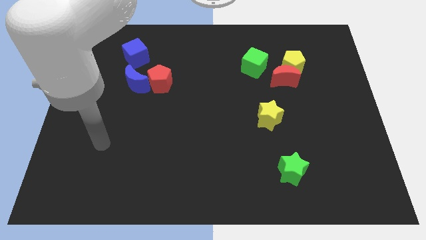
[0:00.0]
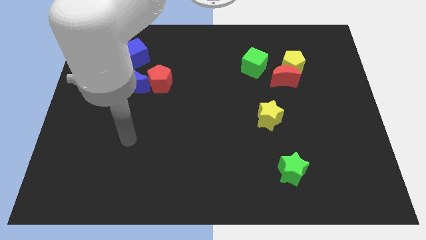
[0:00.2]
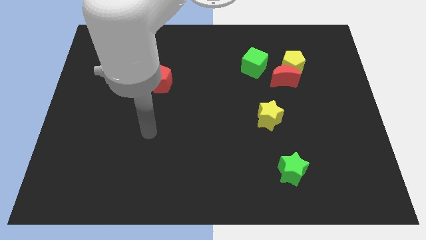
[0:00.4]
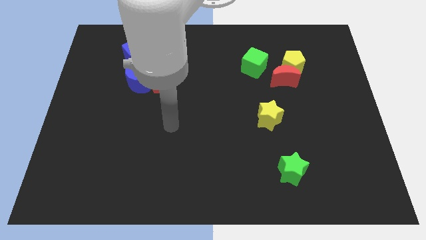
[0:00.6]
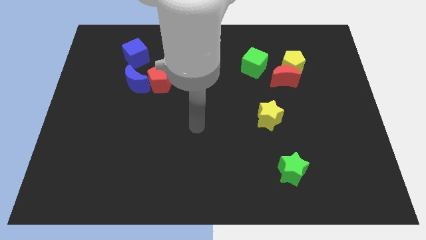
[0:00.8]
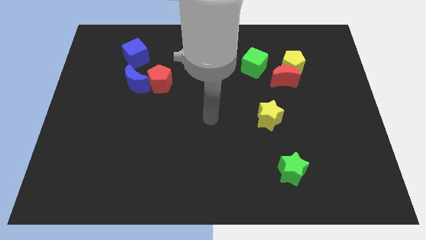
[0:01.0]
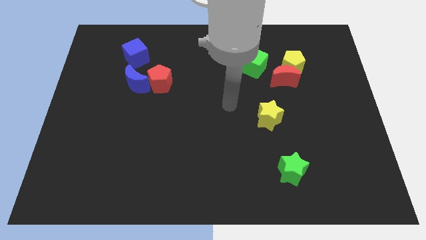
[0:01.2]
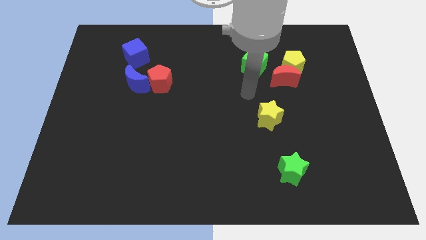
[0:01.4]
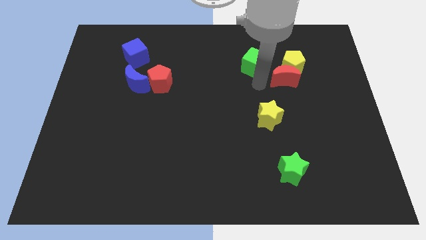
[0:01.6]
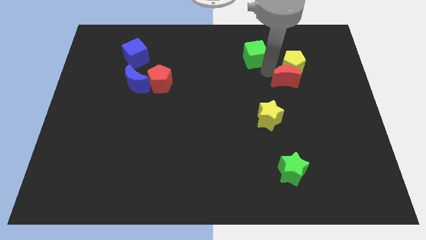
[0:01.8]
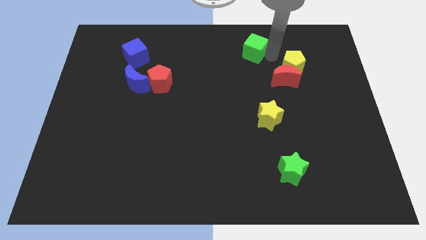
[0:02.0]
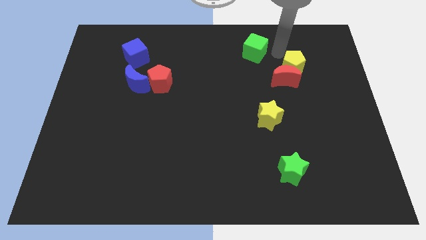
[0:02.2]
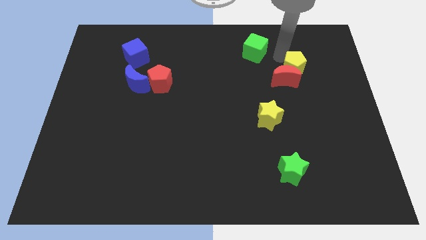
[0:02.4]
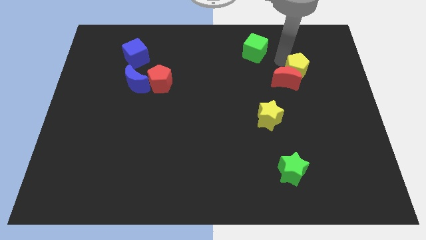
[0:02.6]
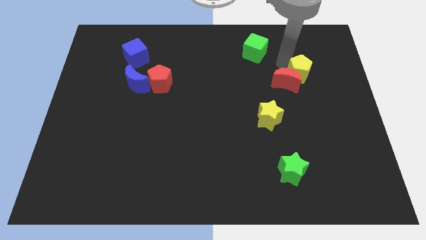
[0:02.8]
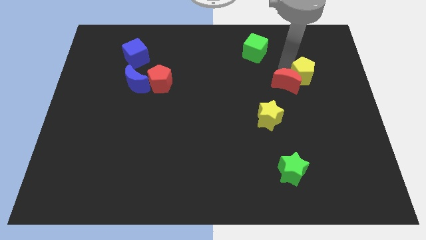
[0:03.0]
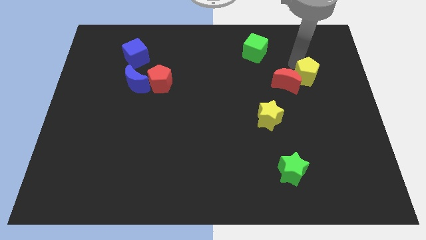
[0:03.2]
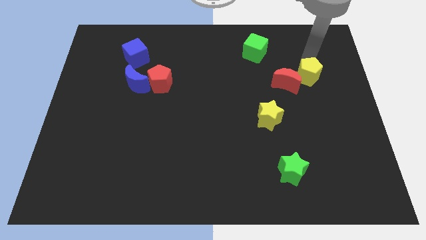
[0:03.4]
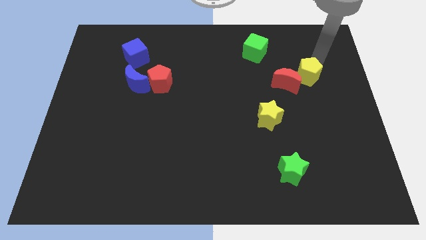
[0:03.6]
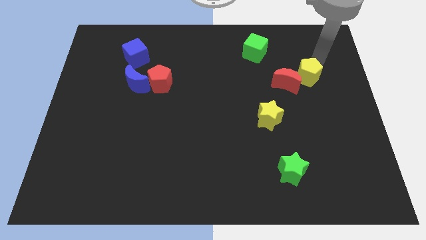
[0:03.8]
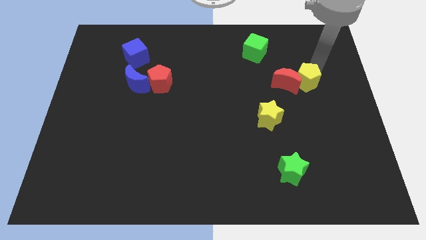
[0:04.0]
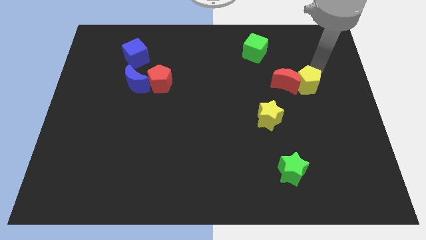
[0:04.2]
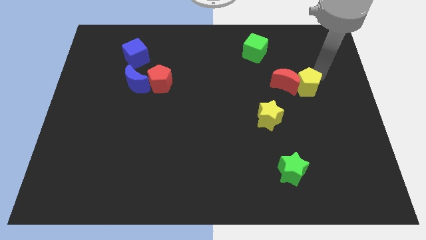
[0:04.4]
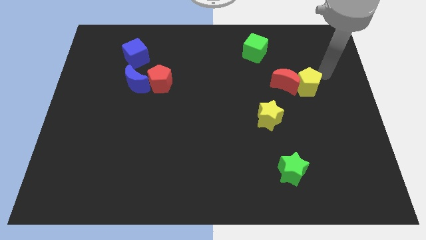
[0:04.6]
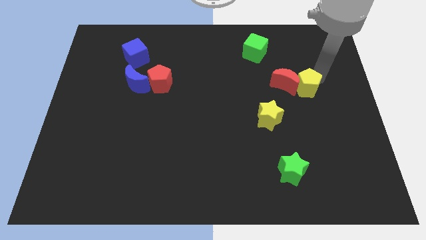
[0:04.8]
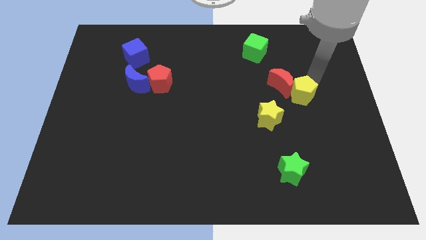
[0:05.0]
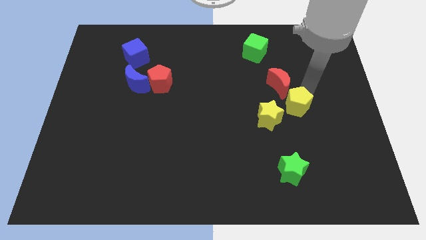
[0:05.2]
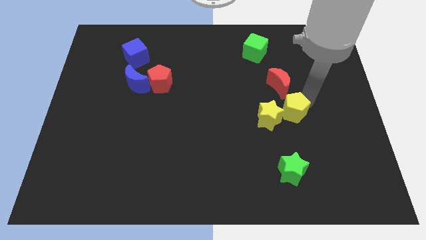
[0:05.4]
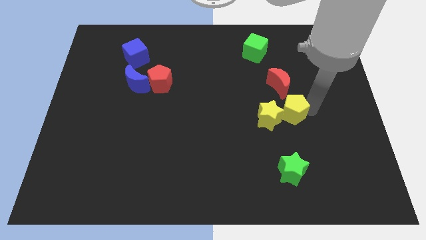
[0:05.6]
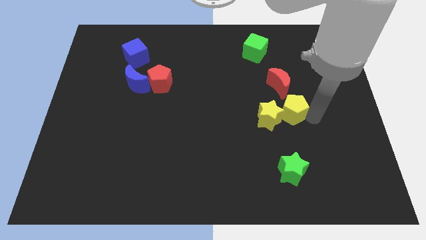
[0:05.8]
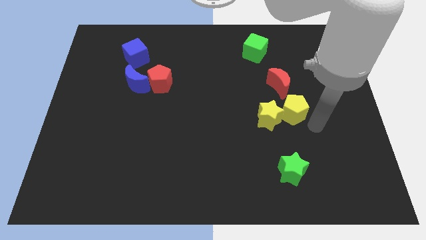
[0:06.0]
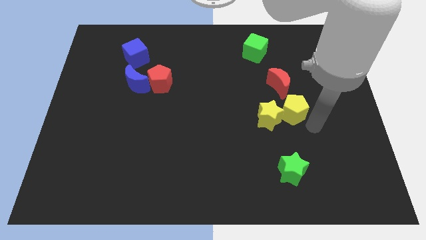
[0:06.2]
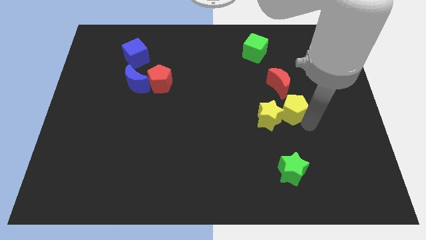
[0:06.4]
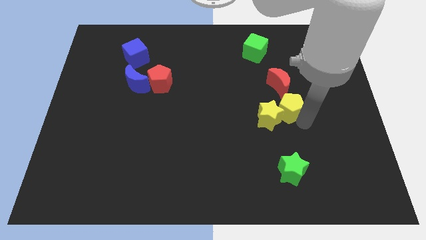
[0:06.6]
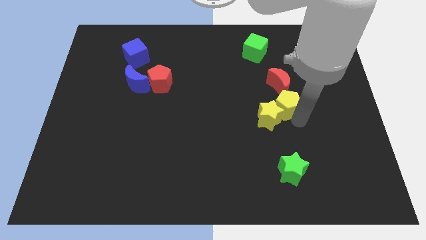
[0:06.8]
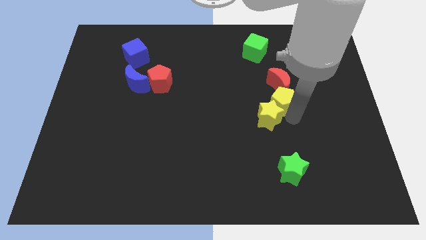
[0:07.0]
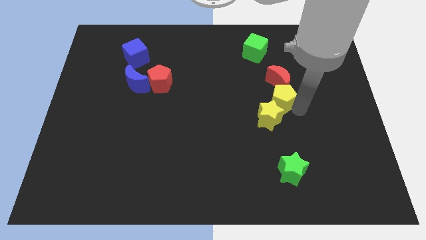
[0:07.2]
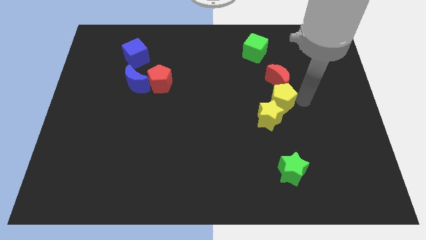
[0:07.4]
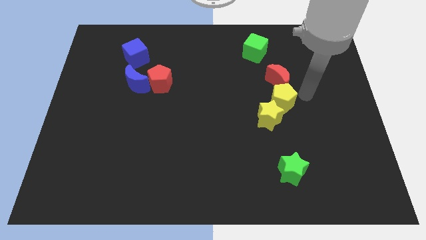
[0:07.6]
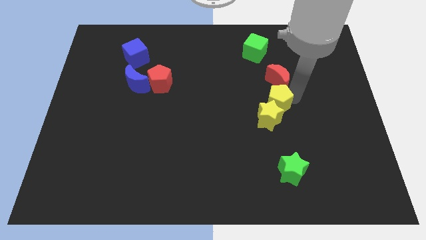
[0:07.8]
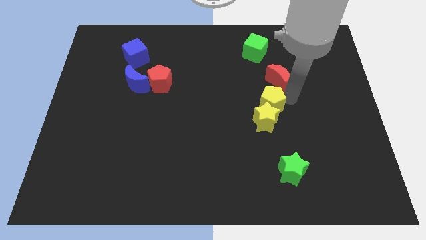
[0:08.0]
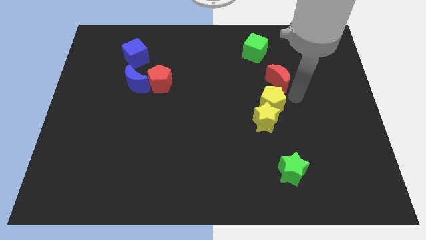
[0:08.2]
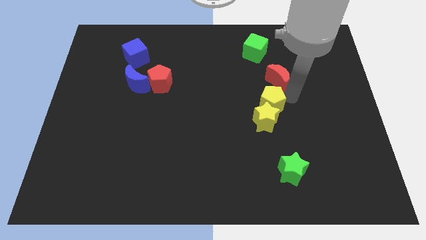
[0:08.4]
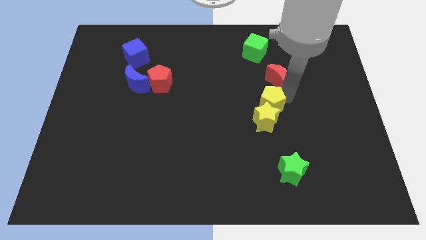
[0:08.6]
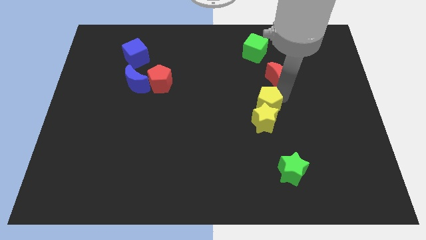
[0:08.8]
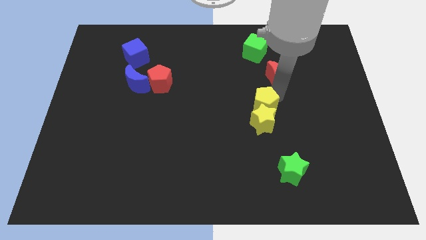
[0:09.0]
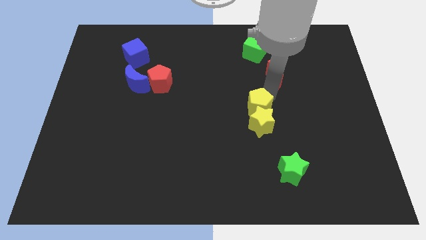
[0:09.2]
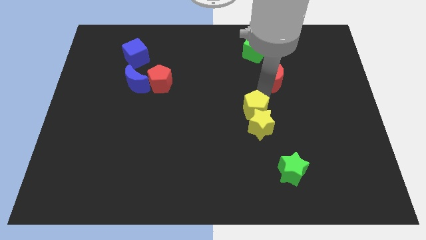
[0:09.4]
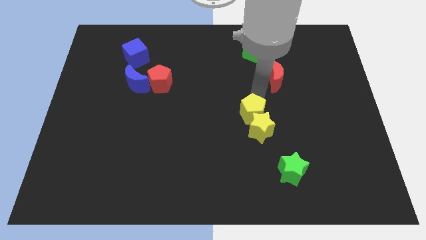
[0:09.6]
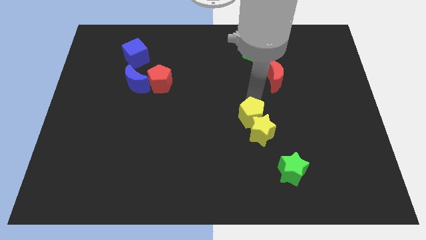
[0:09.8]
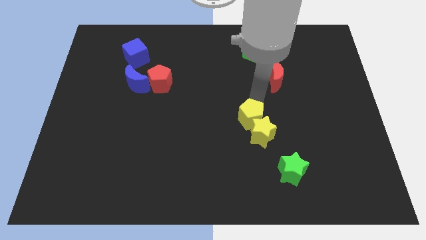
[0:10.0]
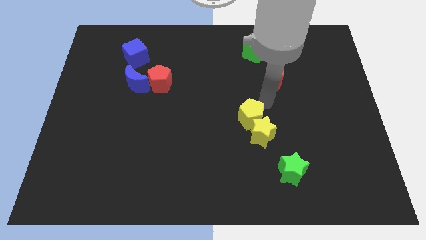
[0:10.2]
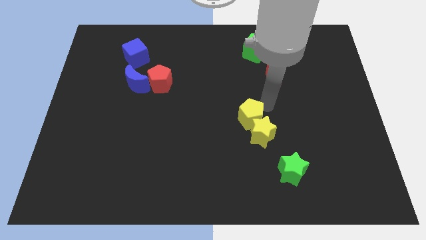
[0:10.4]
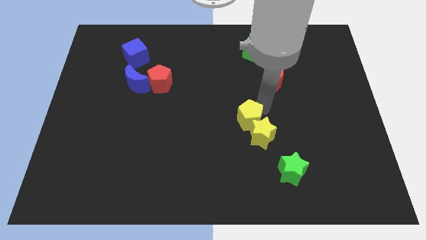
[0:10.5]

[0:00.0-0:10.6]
slide the yellow pentagon diagonally down and left

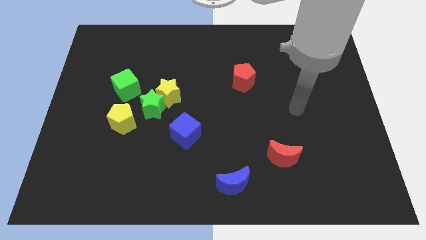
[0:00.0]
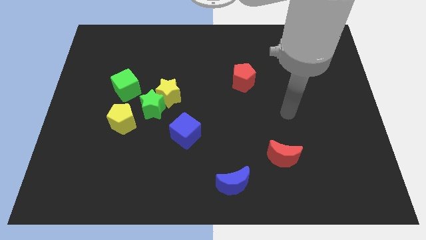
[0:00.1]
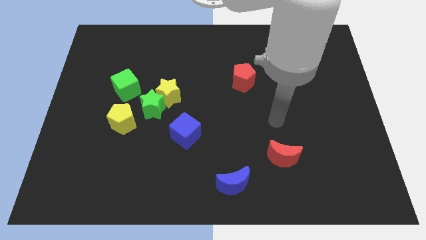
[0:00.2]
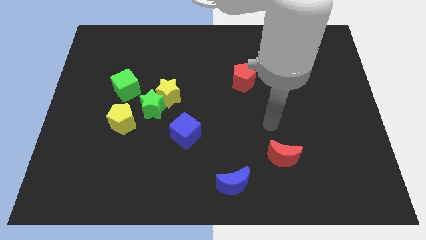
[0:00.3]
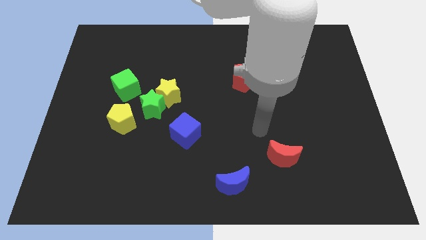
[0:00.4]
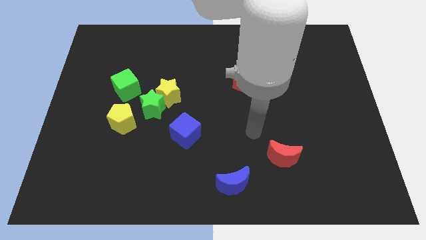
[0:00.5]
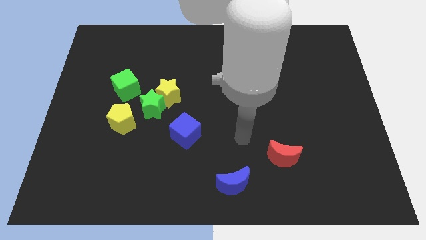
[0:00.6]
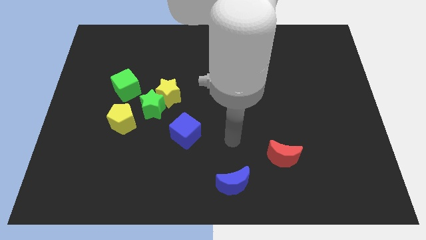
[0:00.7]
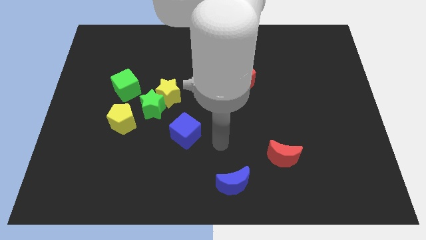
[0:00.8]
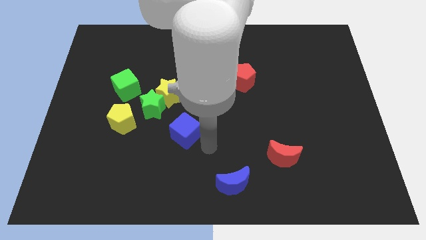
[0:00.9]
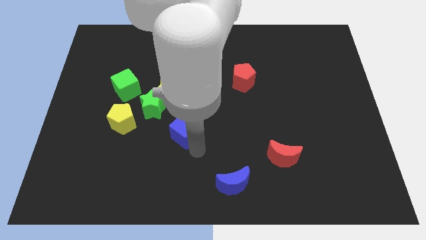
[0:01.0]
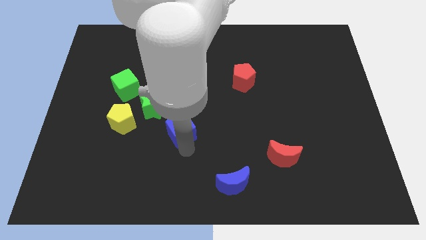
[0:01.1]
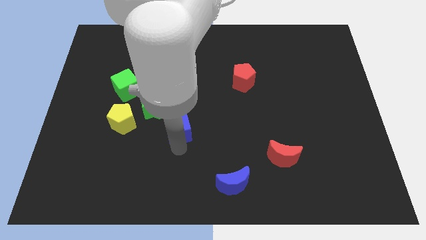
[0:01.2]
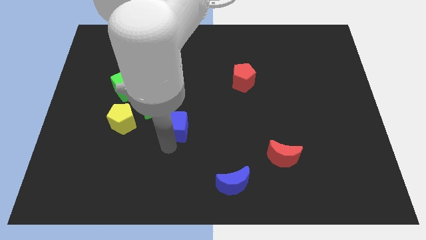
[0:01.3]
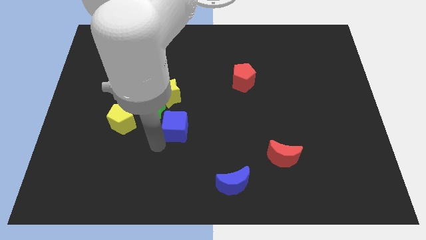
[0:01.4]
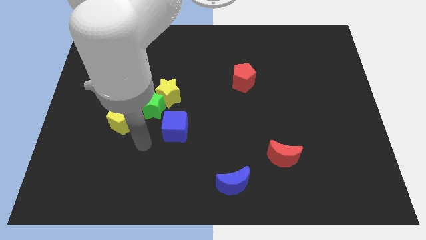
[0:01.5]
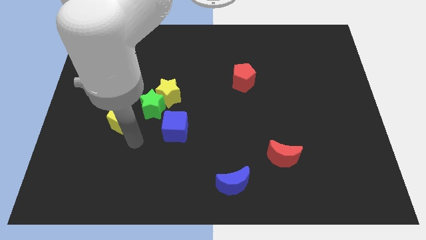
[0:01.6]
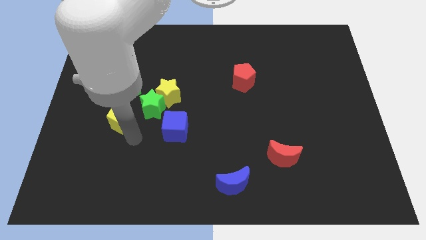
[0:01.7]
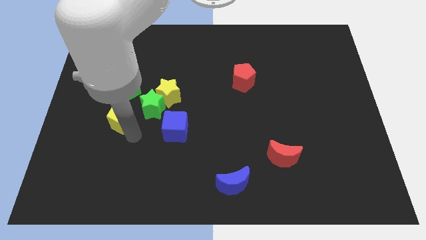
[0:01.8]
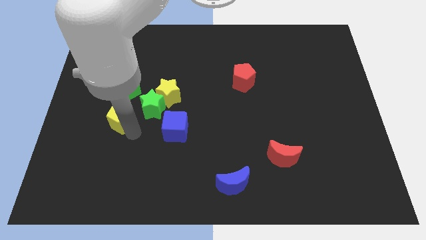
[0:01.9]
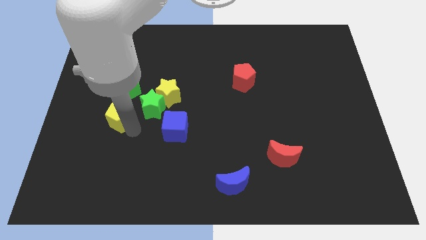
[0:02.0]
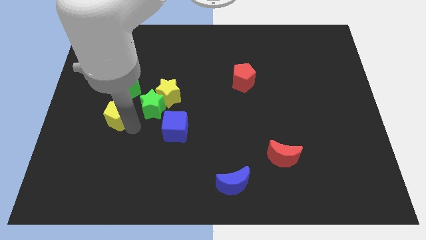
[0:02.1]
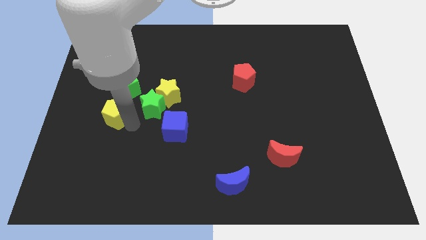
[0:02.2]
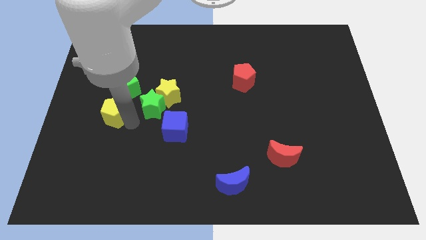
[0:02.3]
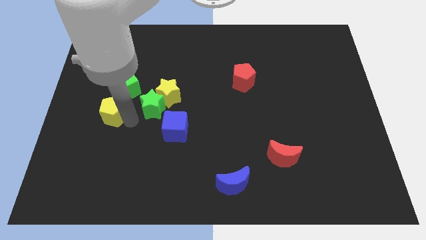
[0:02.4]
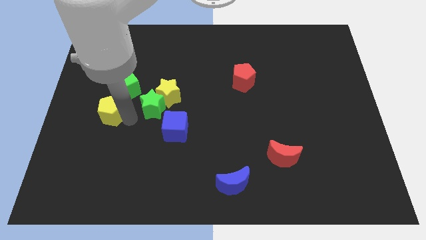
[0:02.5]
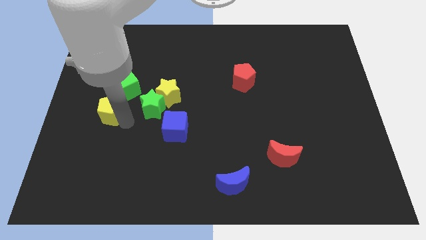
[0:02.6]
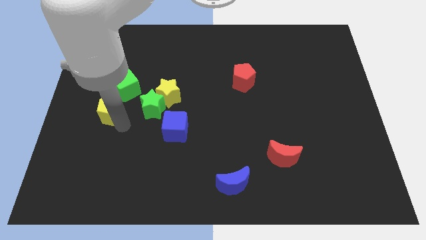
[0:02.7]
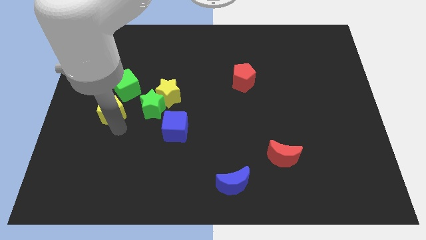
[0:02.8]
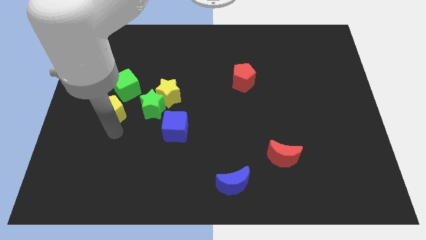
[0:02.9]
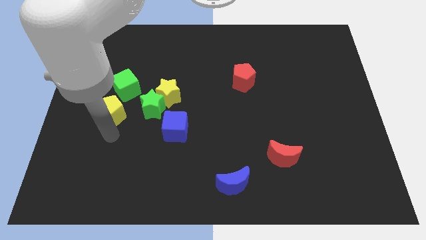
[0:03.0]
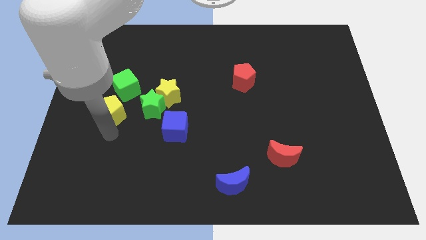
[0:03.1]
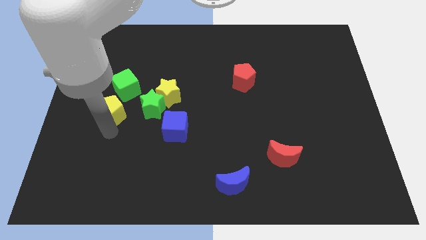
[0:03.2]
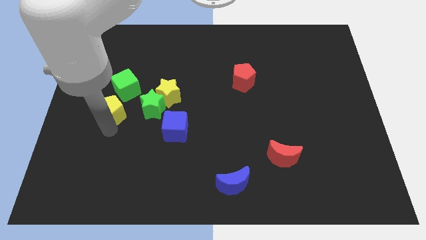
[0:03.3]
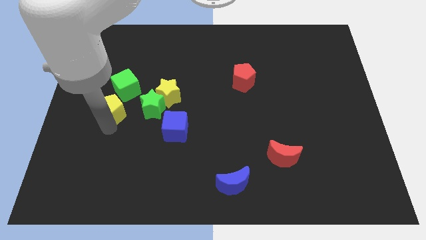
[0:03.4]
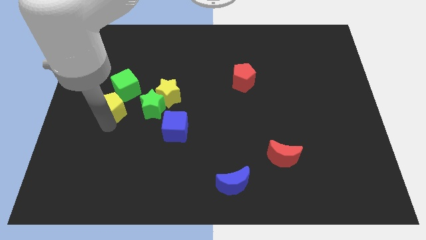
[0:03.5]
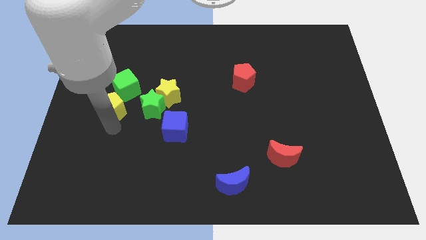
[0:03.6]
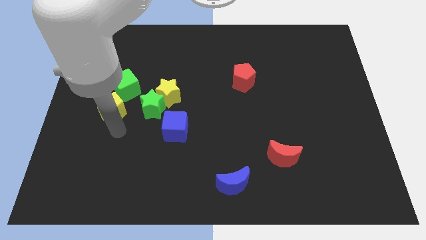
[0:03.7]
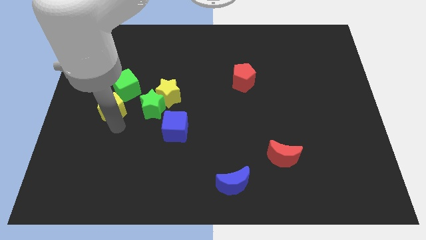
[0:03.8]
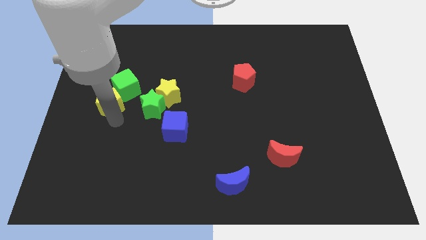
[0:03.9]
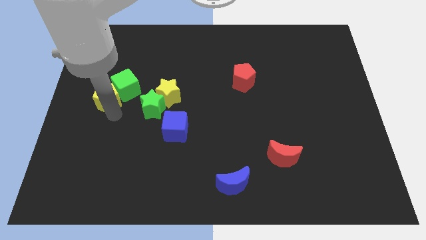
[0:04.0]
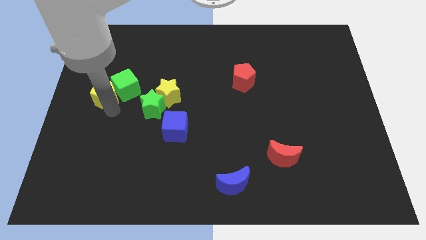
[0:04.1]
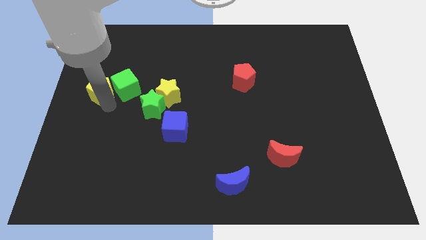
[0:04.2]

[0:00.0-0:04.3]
push the yellow pentagon a bit upwards
